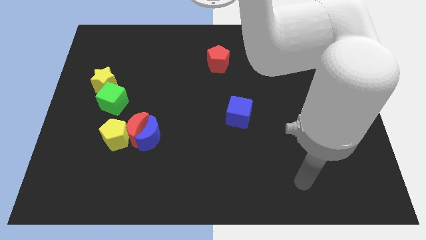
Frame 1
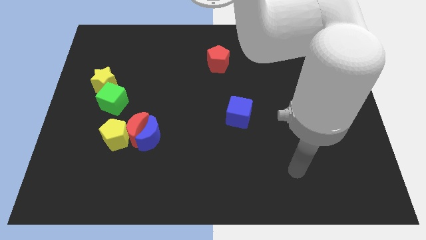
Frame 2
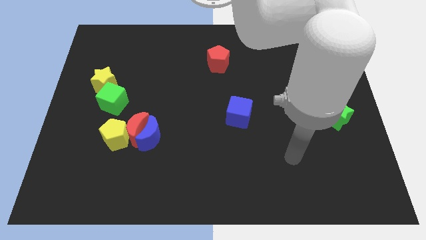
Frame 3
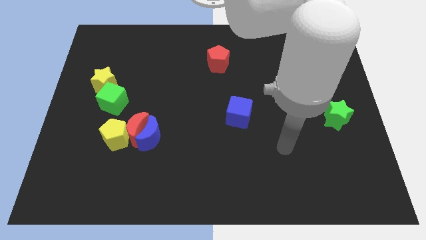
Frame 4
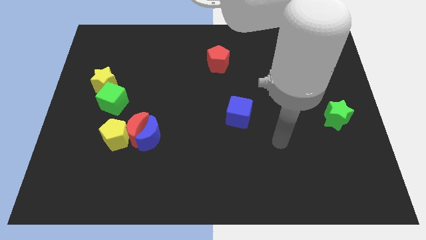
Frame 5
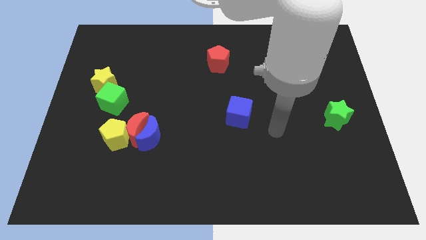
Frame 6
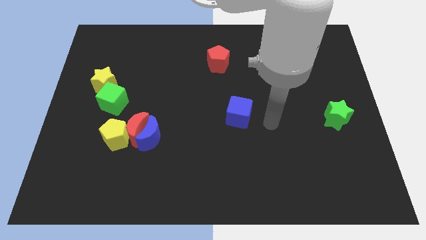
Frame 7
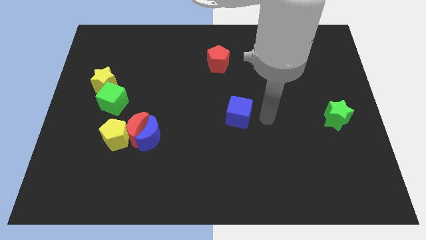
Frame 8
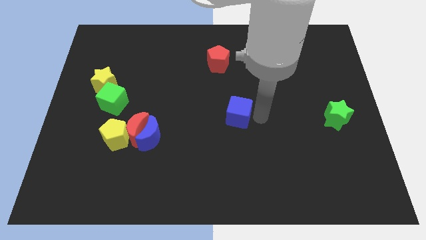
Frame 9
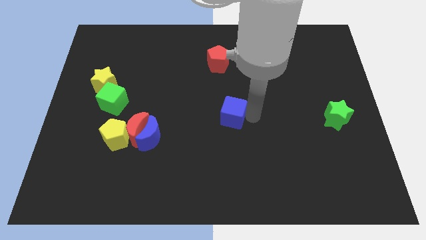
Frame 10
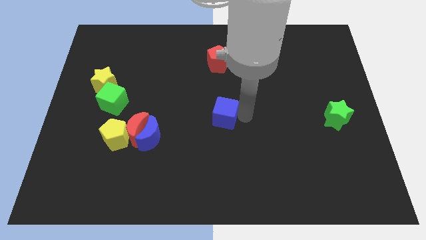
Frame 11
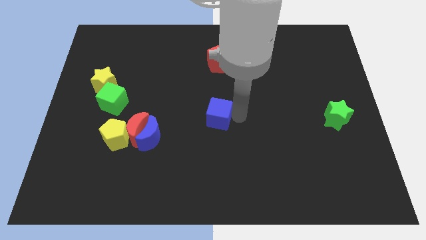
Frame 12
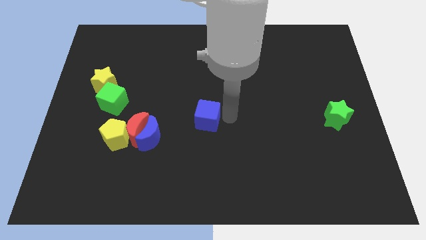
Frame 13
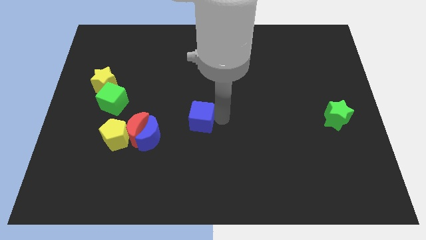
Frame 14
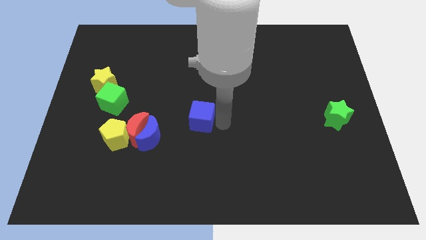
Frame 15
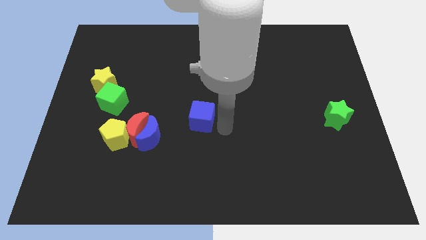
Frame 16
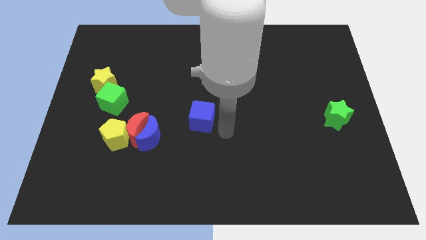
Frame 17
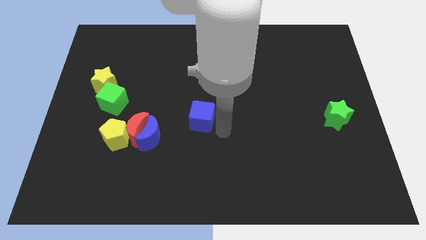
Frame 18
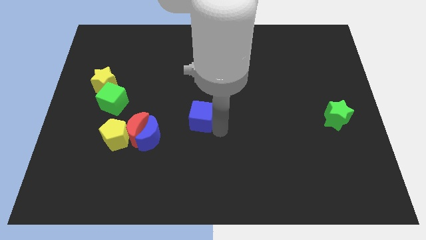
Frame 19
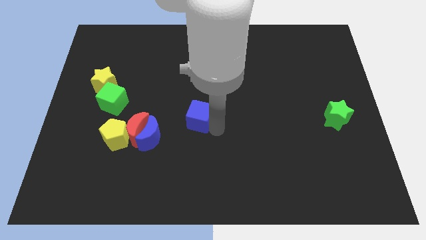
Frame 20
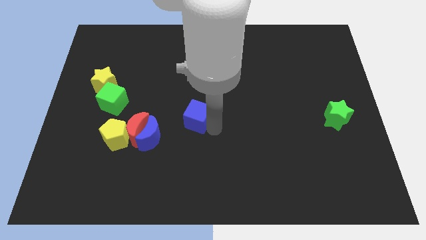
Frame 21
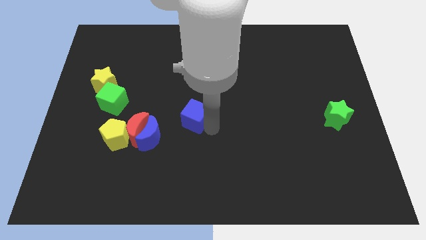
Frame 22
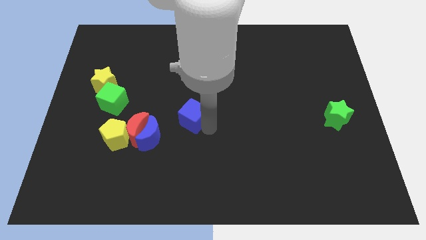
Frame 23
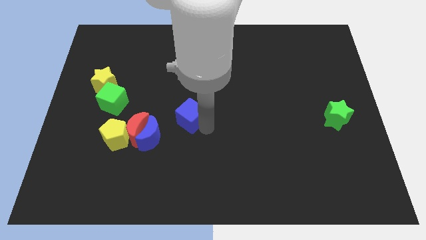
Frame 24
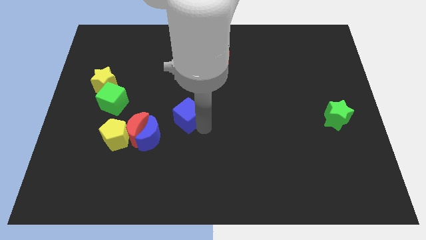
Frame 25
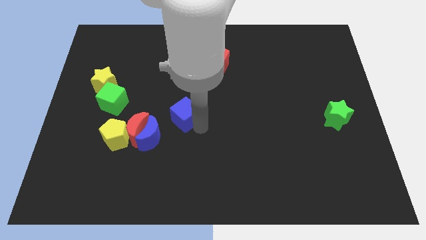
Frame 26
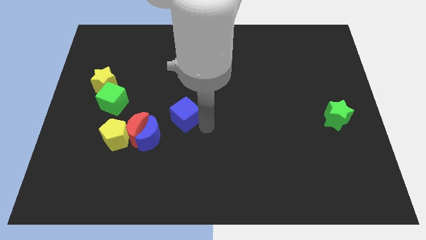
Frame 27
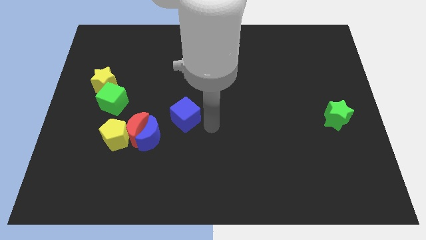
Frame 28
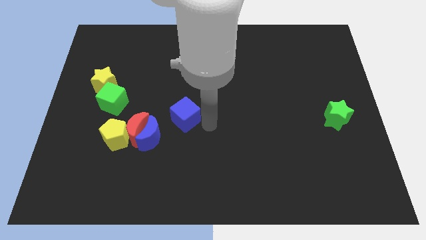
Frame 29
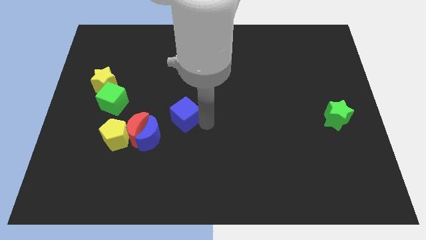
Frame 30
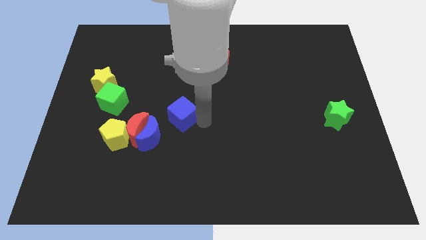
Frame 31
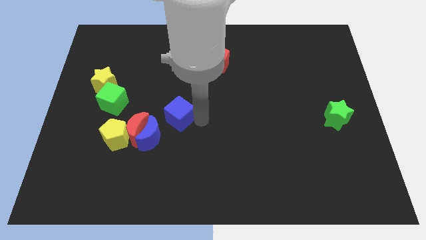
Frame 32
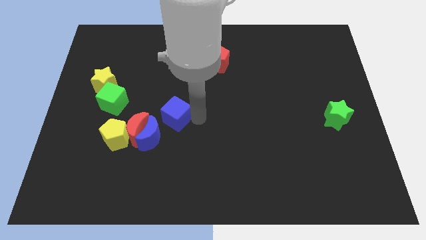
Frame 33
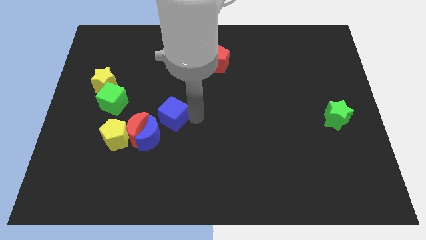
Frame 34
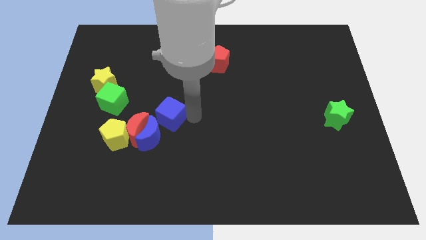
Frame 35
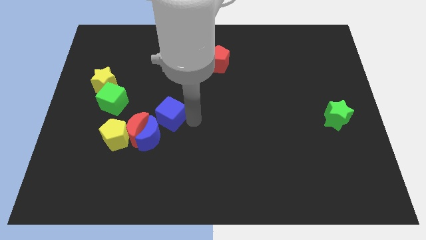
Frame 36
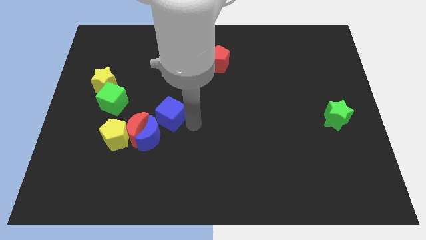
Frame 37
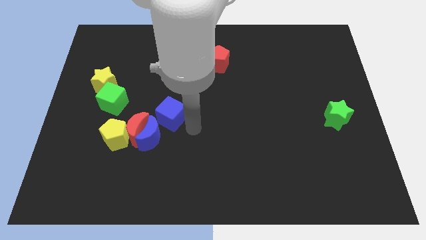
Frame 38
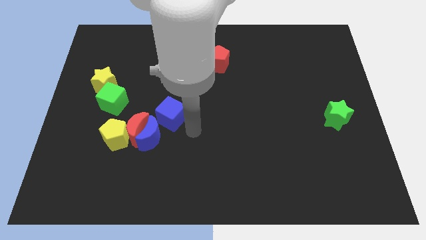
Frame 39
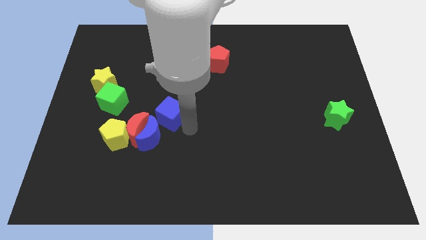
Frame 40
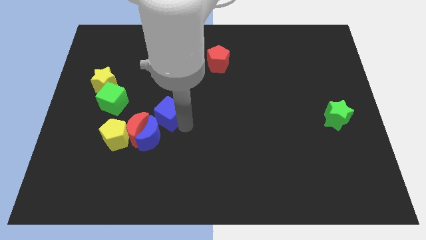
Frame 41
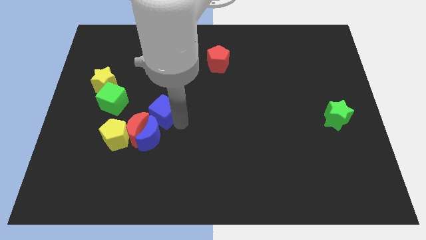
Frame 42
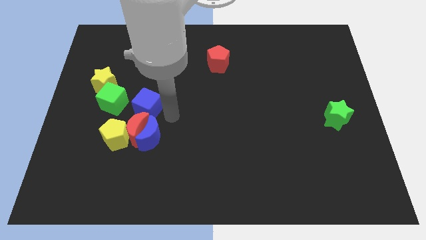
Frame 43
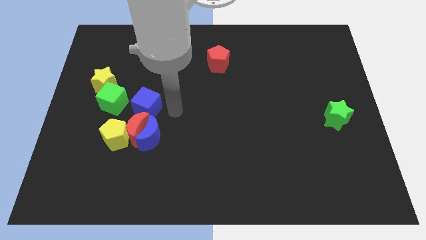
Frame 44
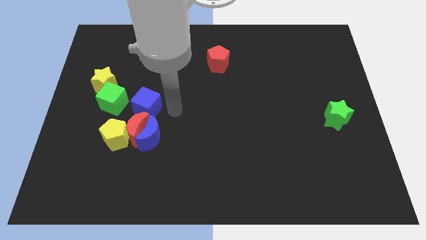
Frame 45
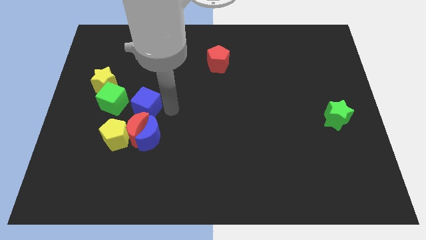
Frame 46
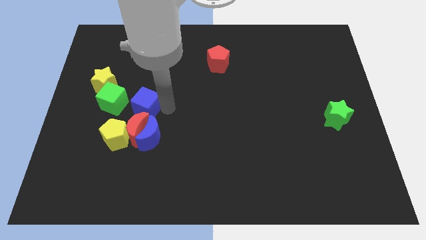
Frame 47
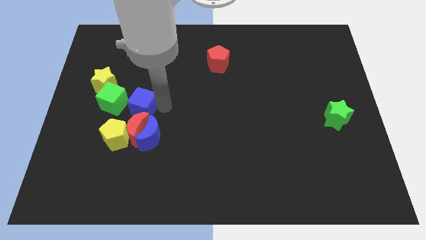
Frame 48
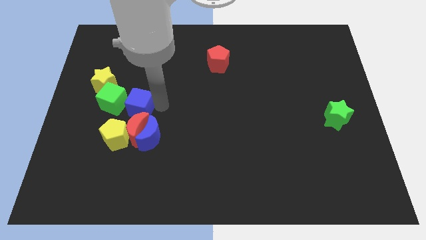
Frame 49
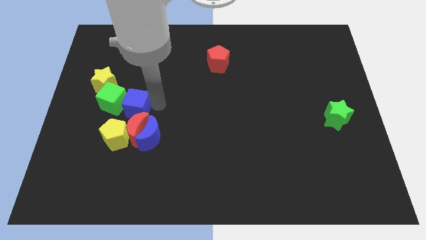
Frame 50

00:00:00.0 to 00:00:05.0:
put the blue cube to the green cube

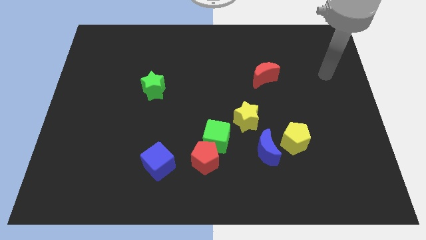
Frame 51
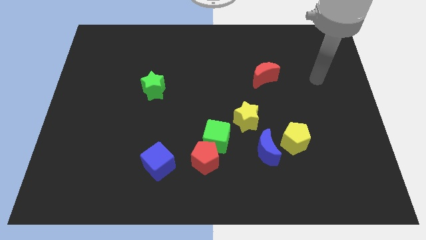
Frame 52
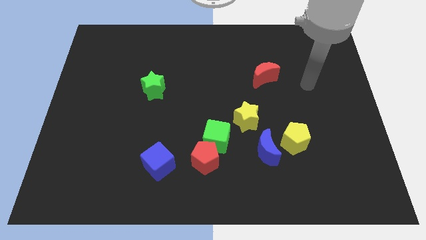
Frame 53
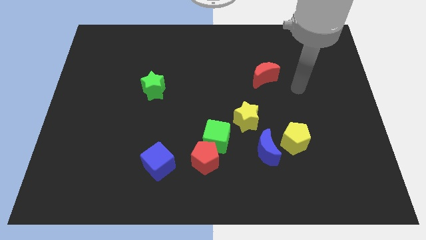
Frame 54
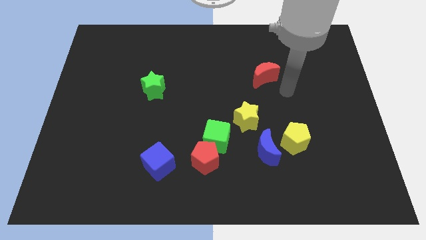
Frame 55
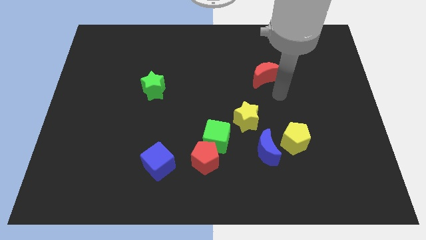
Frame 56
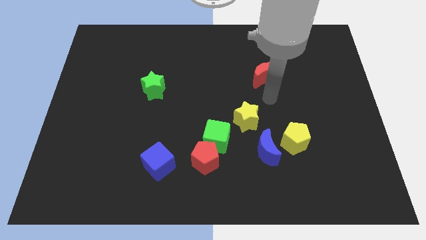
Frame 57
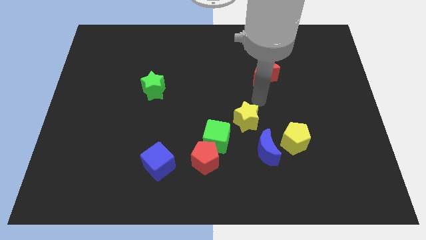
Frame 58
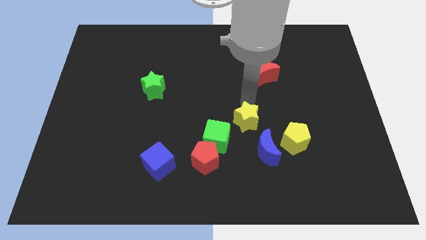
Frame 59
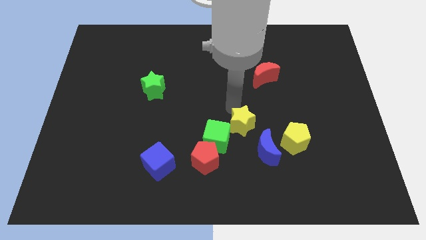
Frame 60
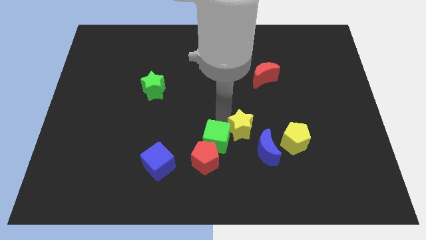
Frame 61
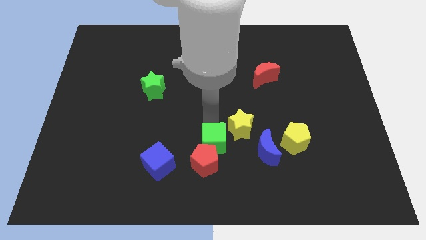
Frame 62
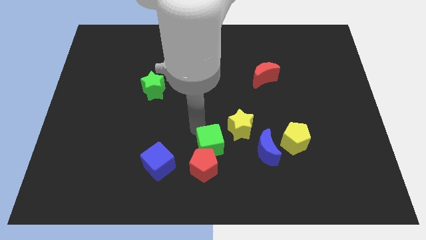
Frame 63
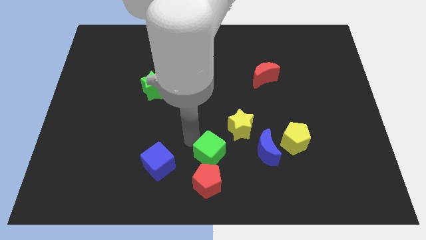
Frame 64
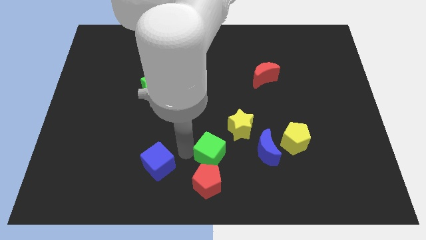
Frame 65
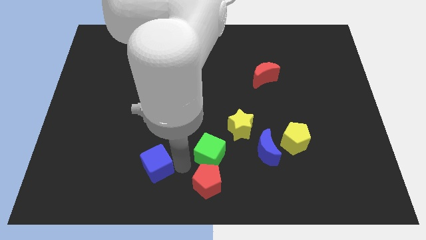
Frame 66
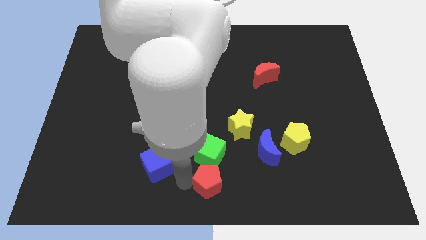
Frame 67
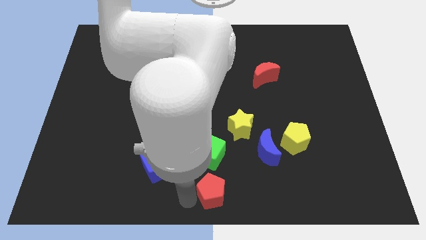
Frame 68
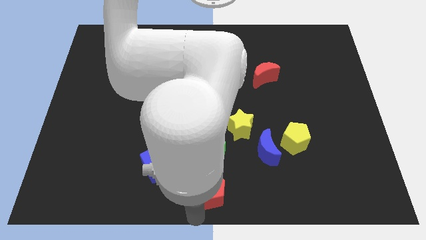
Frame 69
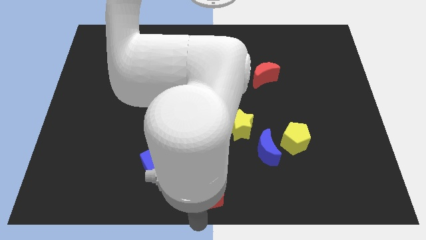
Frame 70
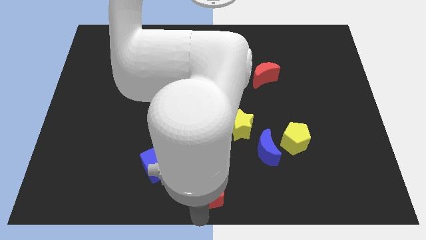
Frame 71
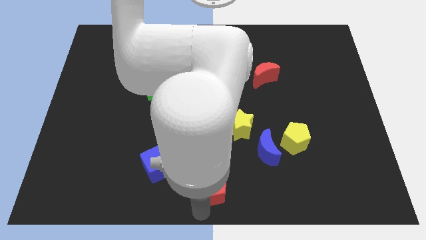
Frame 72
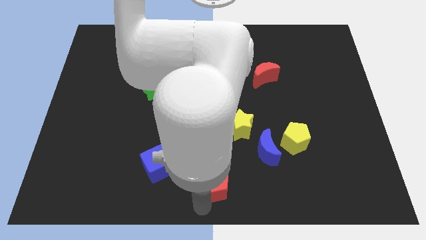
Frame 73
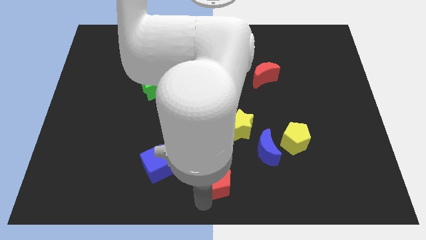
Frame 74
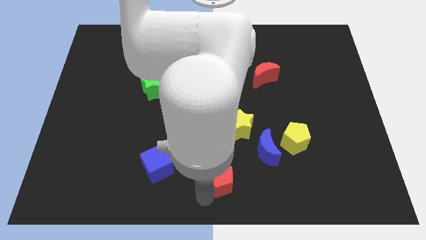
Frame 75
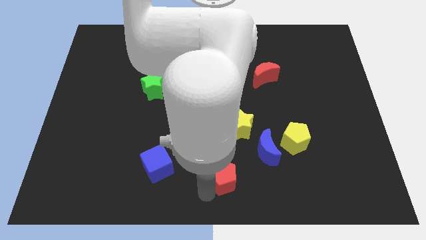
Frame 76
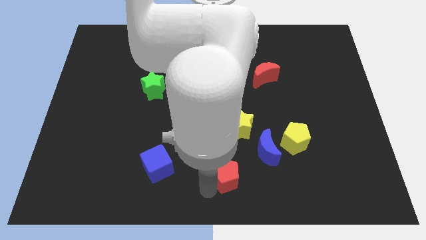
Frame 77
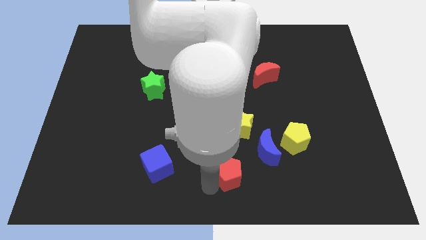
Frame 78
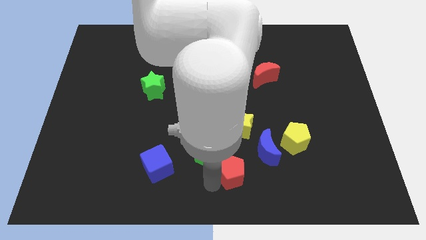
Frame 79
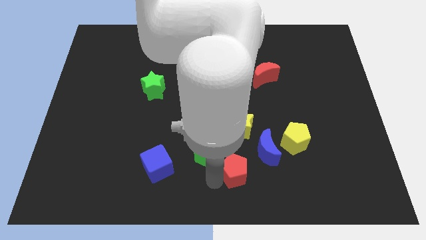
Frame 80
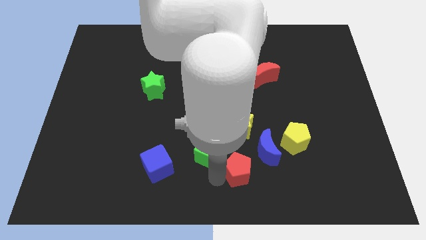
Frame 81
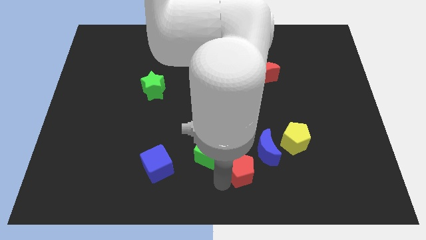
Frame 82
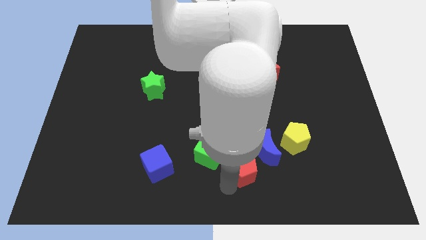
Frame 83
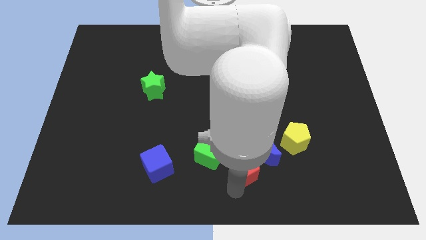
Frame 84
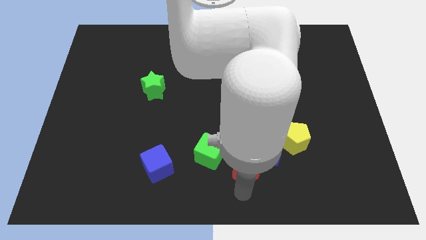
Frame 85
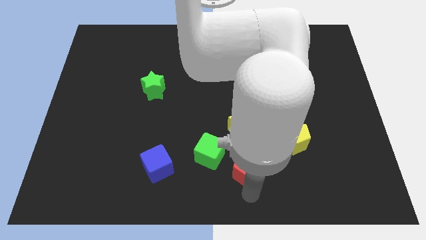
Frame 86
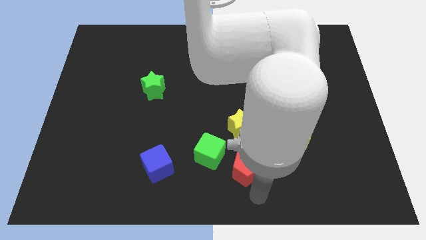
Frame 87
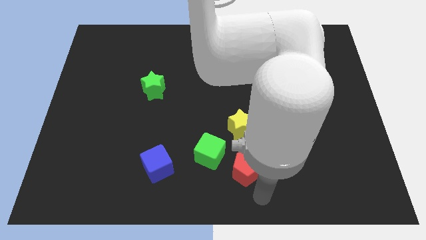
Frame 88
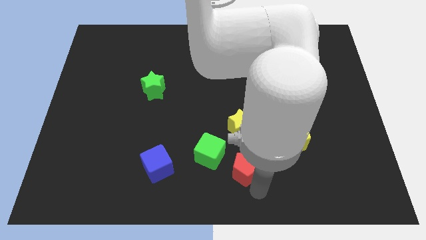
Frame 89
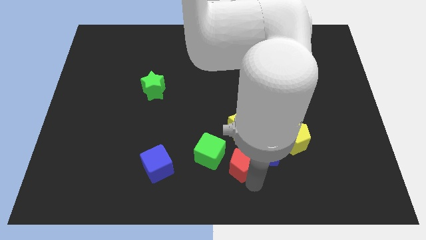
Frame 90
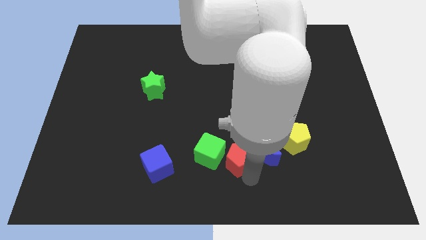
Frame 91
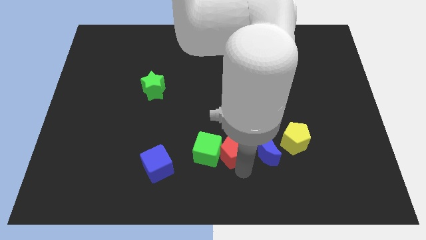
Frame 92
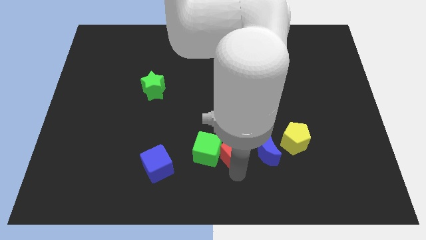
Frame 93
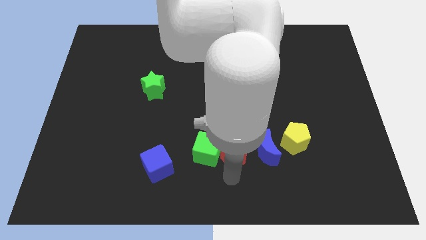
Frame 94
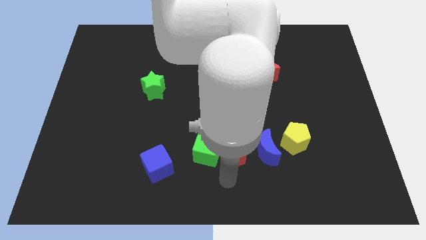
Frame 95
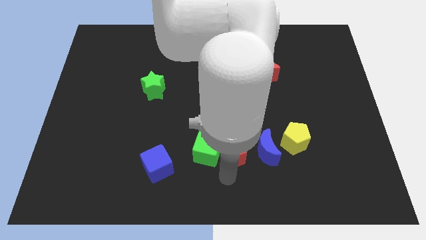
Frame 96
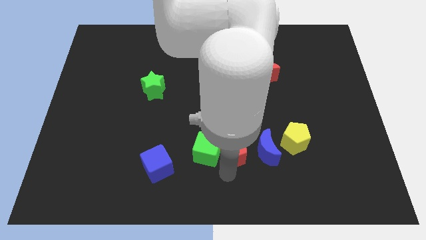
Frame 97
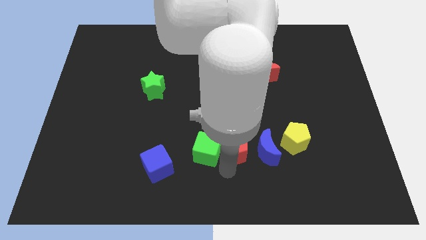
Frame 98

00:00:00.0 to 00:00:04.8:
slide the red pentagon close to the yellow star
